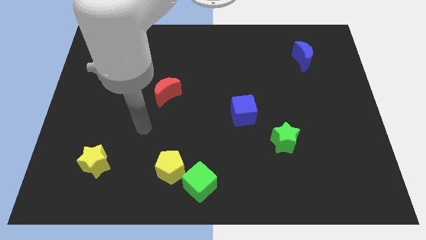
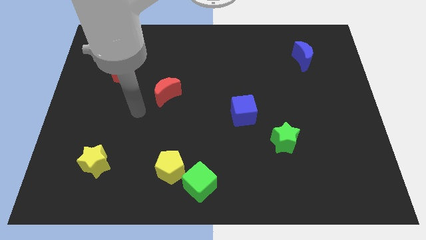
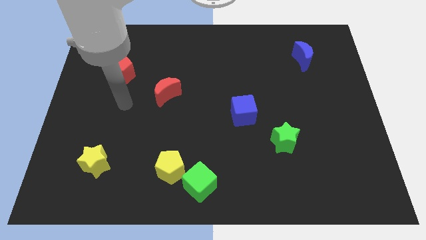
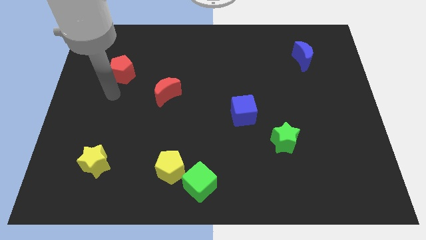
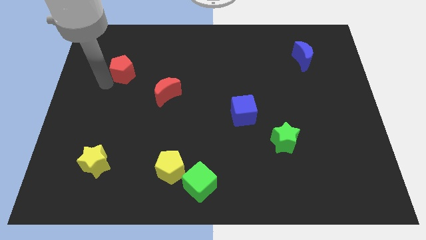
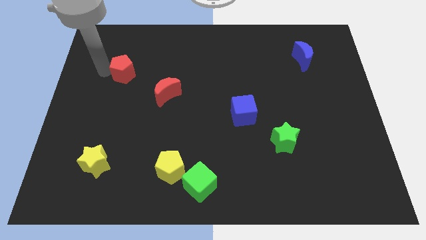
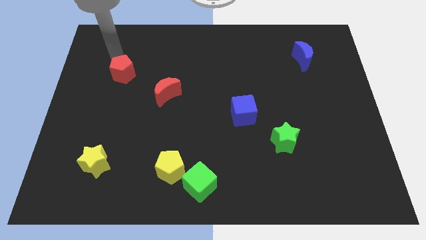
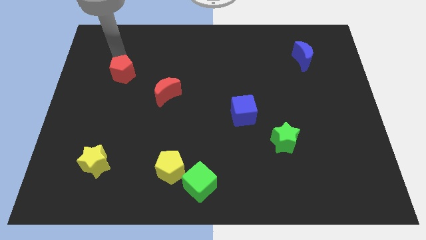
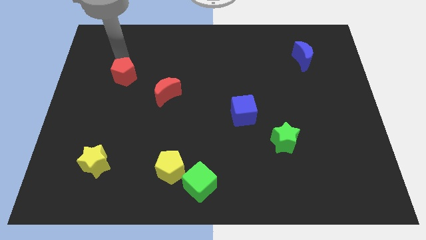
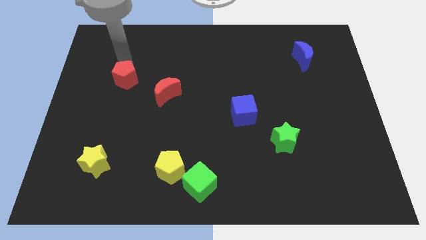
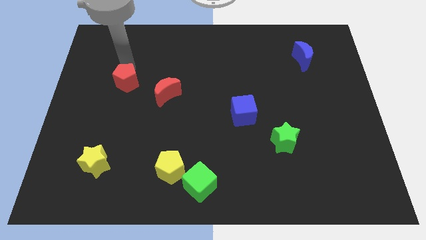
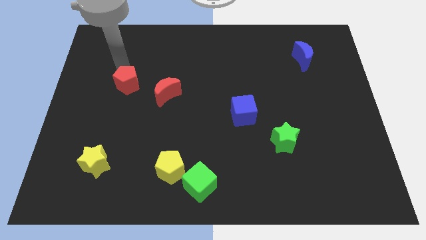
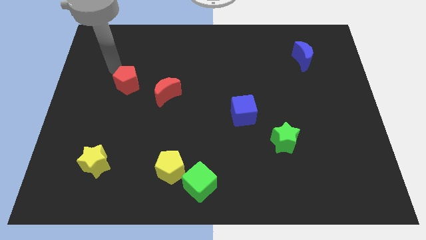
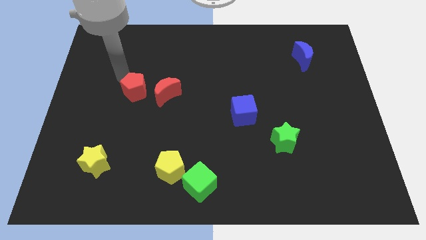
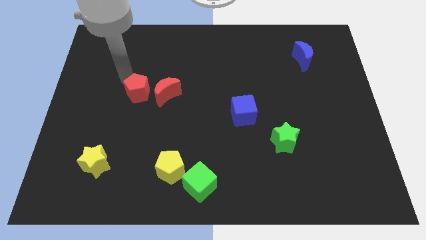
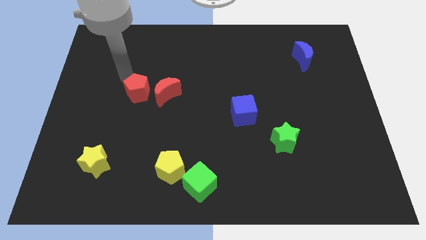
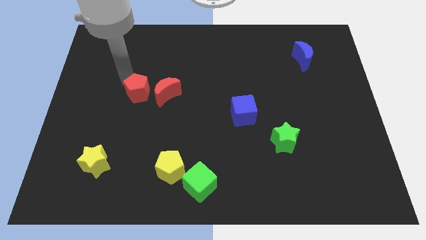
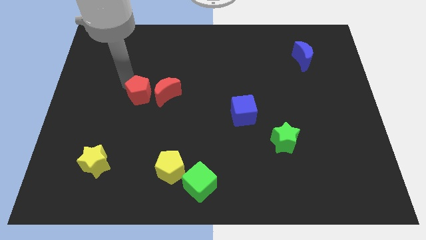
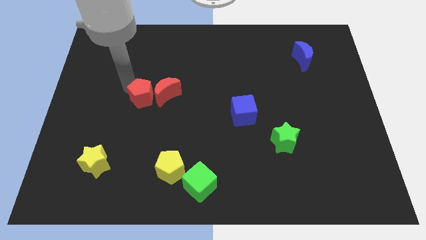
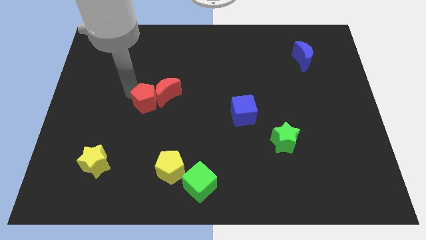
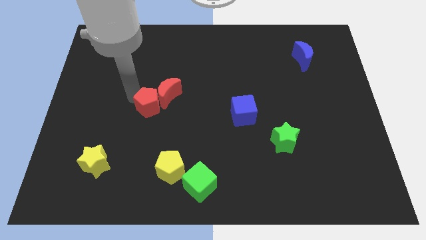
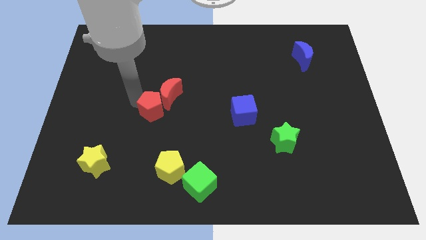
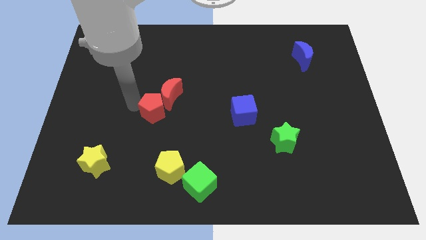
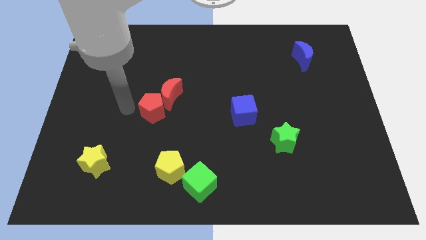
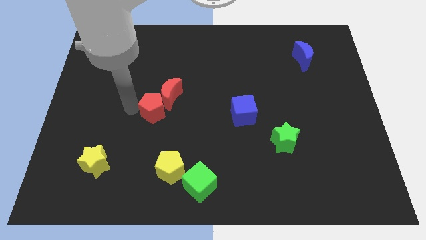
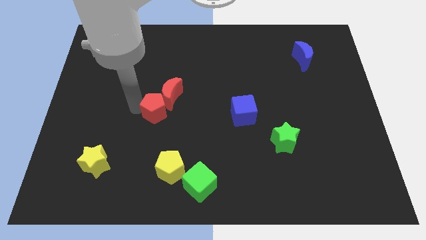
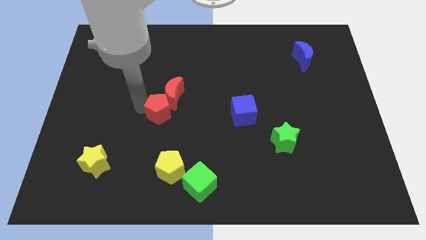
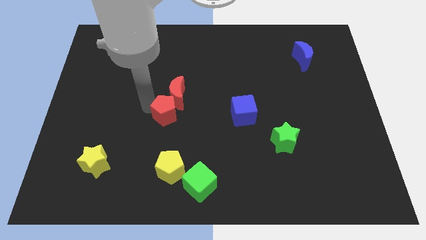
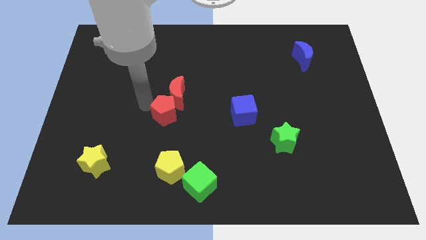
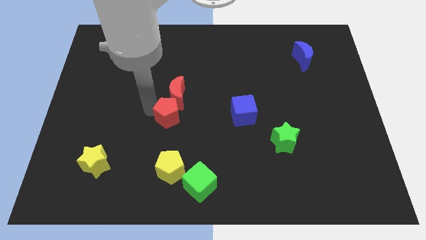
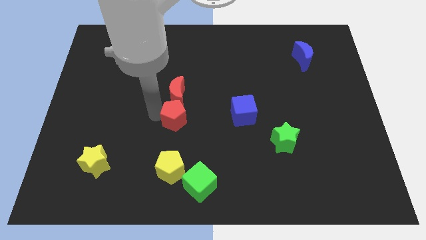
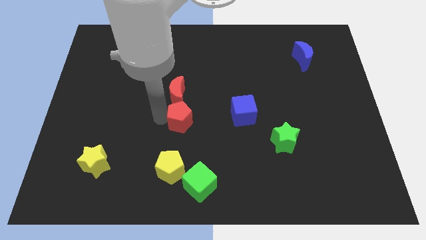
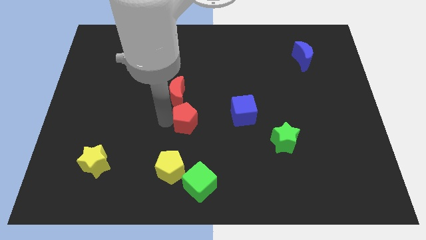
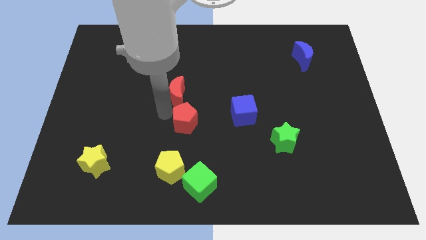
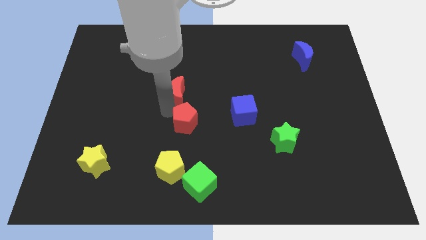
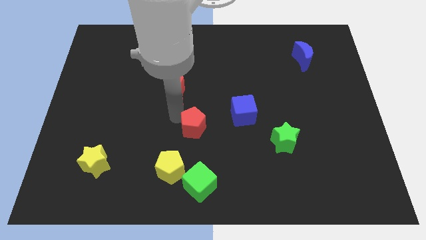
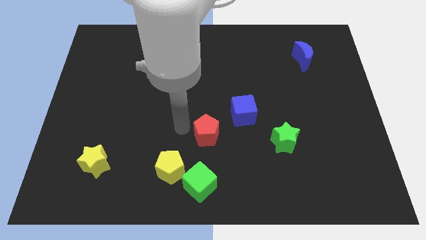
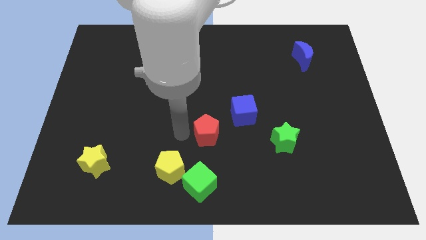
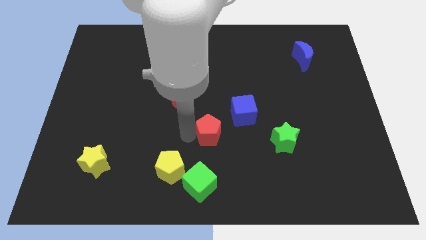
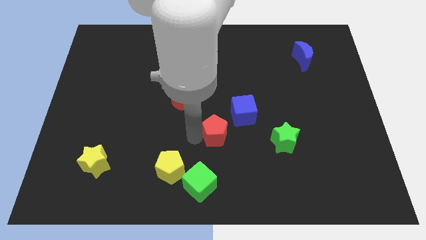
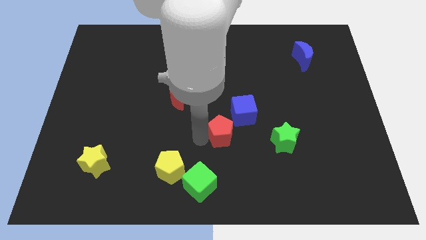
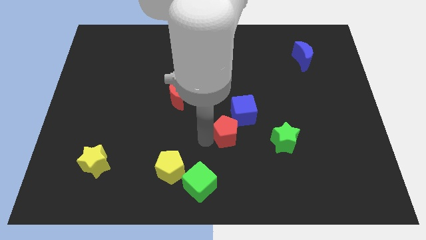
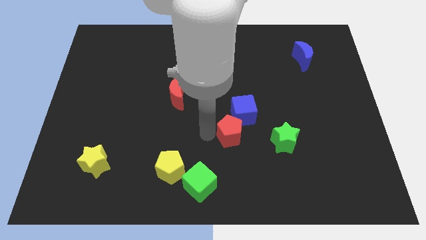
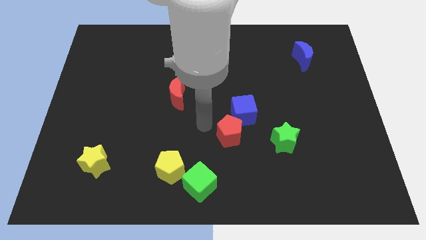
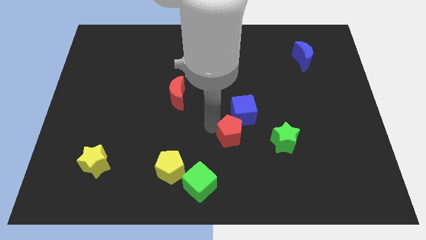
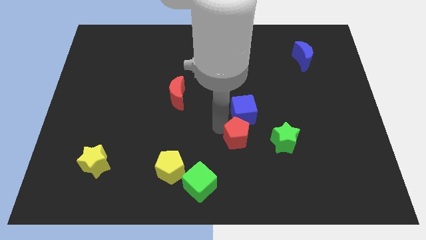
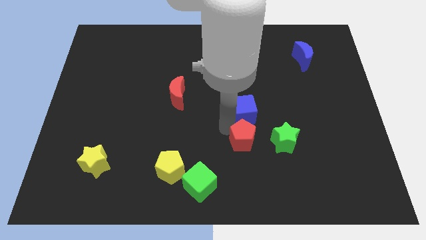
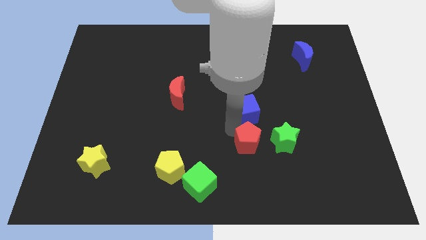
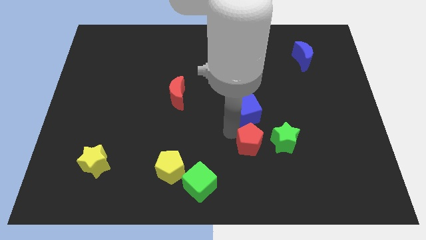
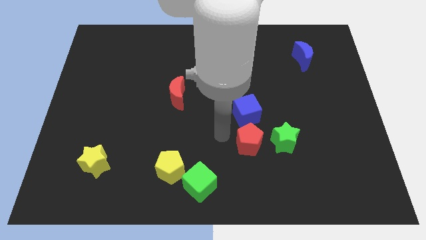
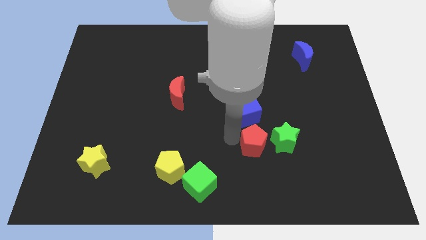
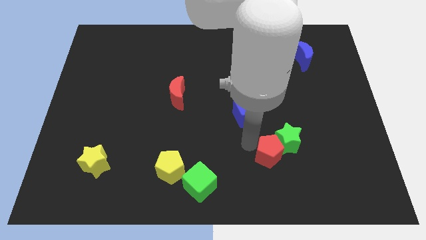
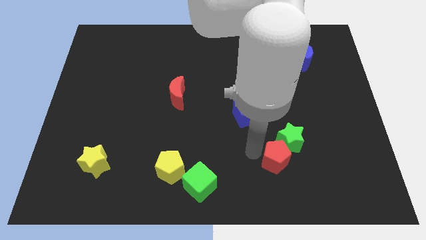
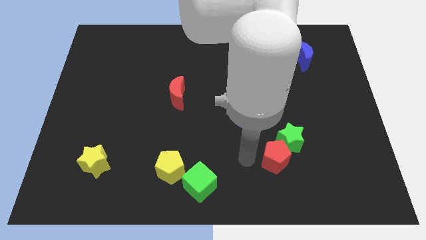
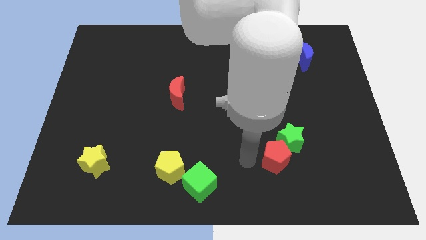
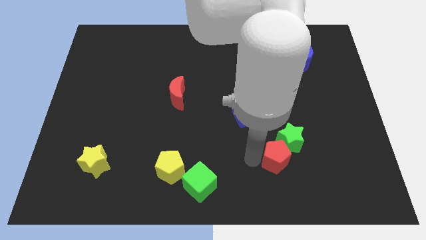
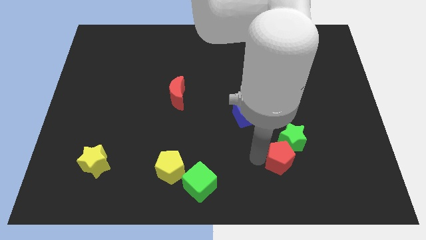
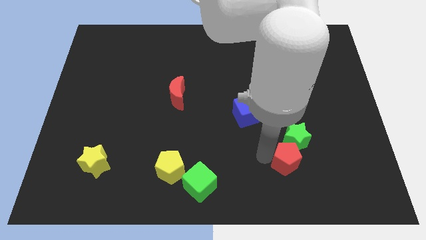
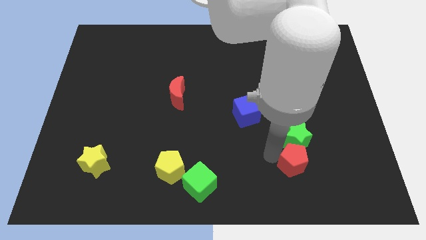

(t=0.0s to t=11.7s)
move the red pentagon to the bottom right of the green star
